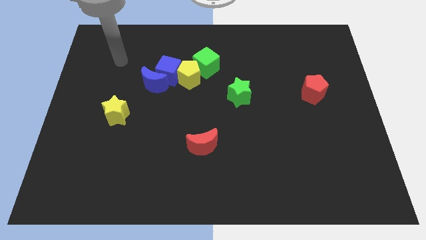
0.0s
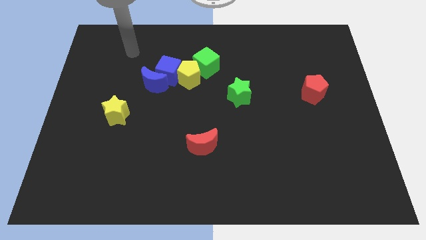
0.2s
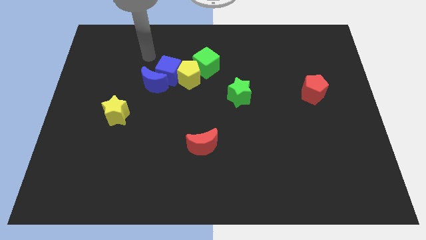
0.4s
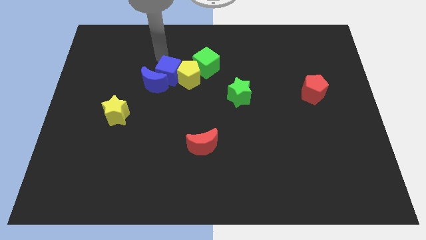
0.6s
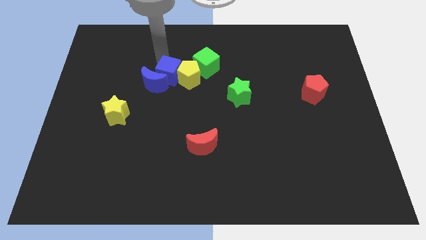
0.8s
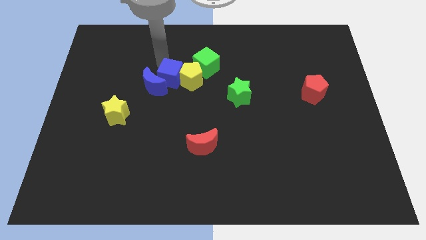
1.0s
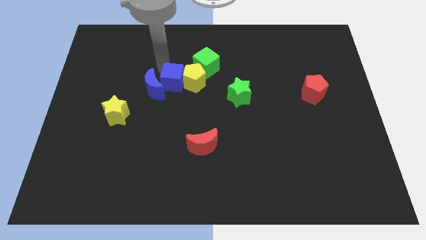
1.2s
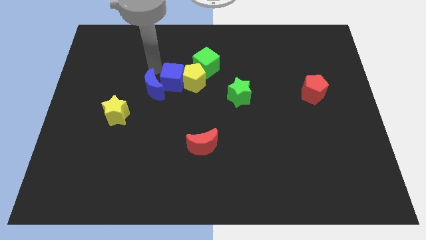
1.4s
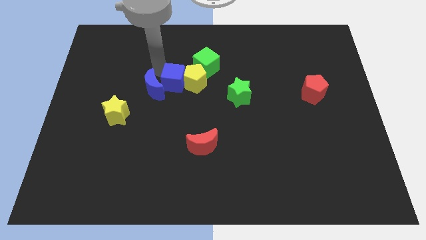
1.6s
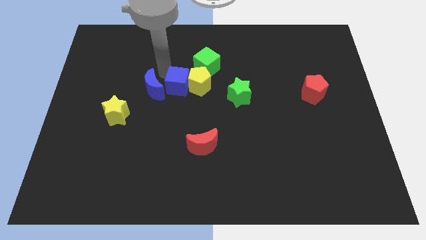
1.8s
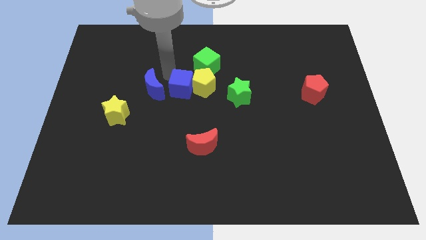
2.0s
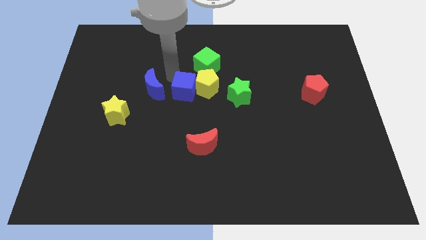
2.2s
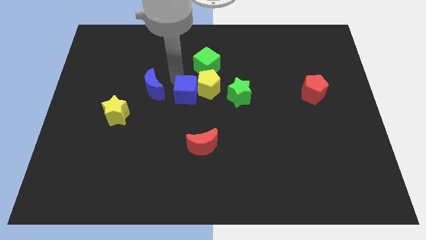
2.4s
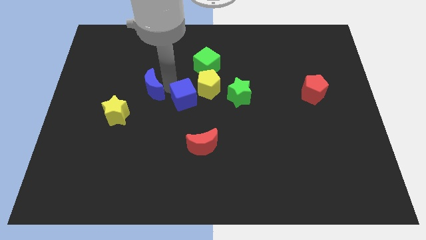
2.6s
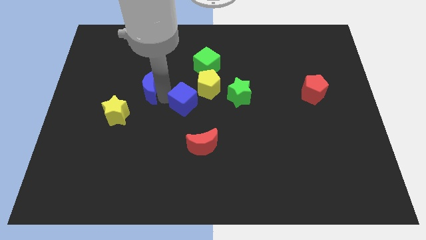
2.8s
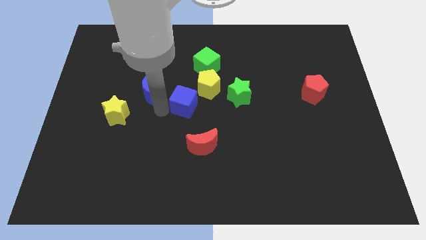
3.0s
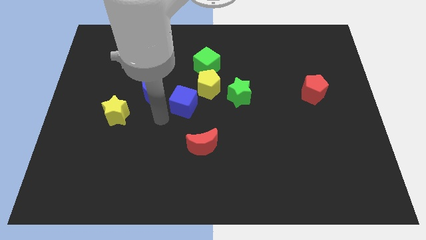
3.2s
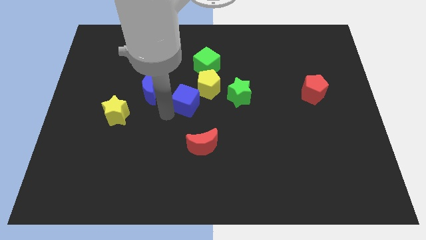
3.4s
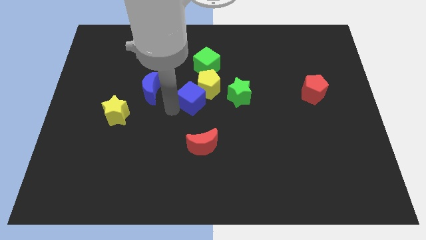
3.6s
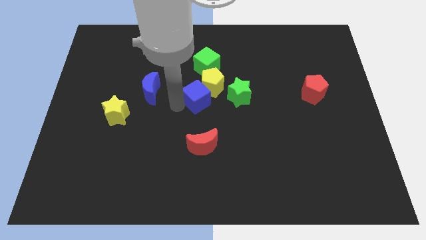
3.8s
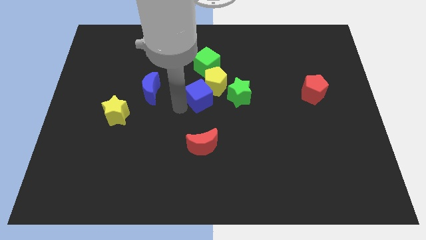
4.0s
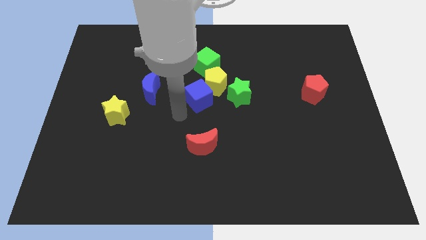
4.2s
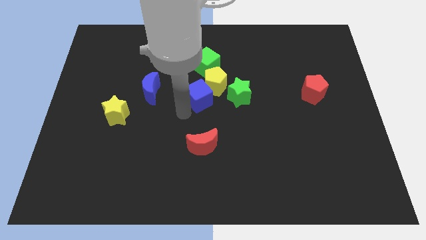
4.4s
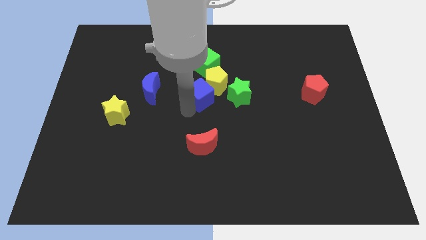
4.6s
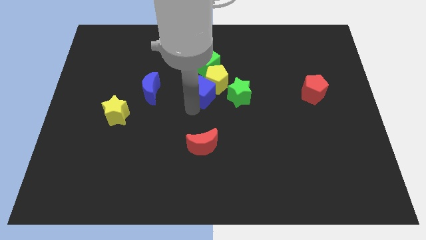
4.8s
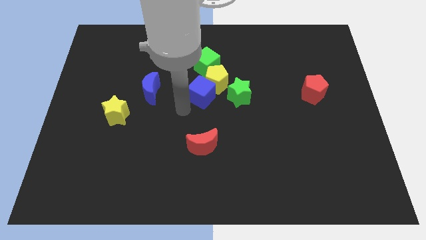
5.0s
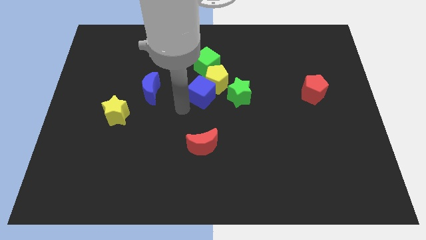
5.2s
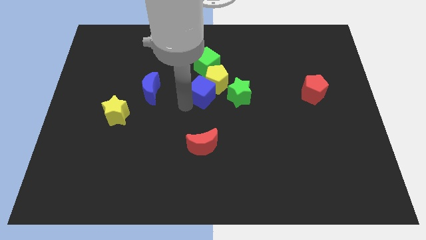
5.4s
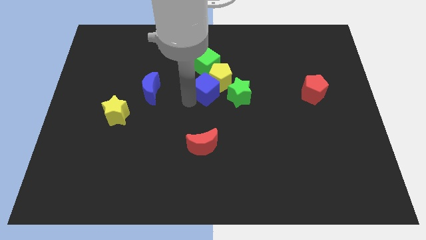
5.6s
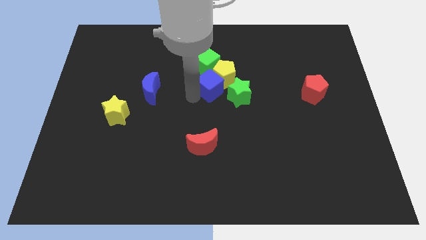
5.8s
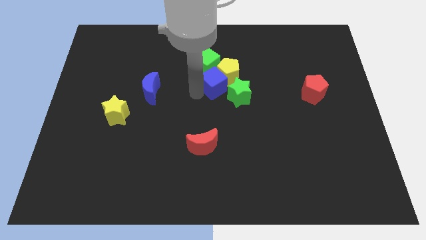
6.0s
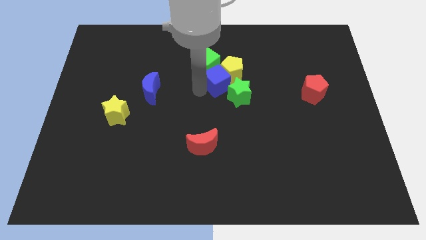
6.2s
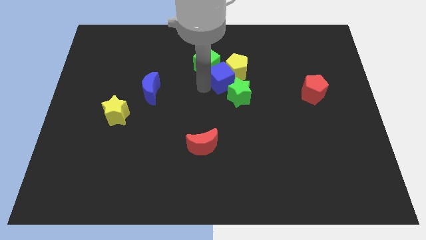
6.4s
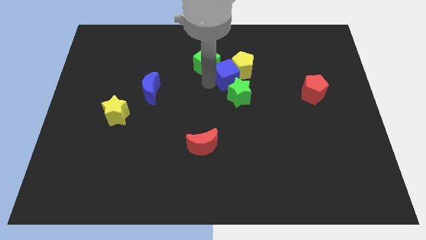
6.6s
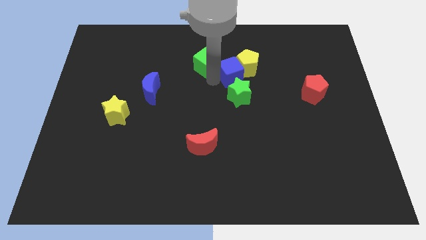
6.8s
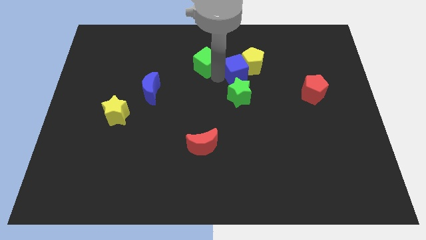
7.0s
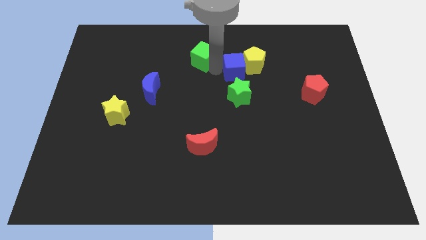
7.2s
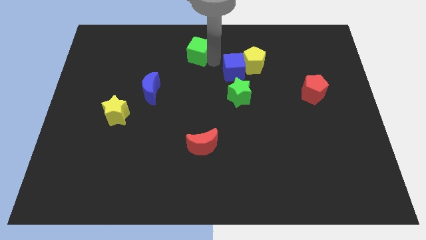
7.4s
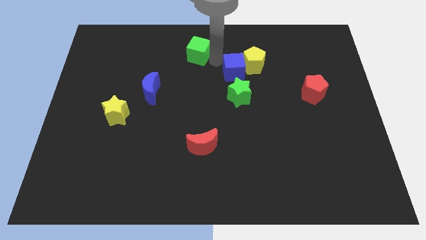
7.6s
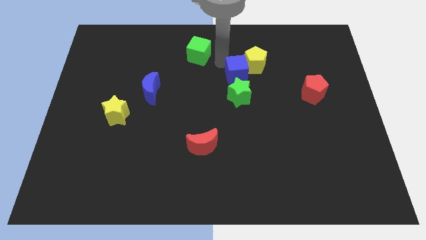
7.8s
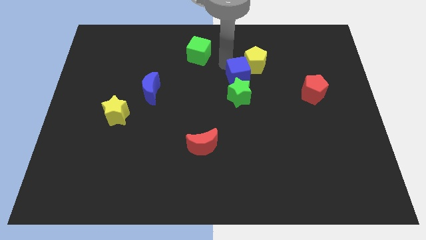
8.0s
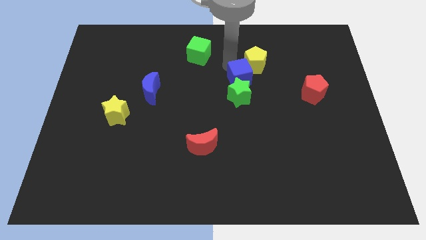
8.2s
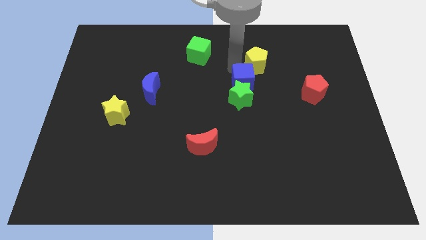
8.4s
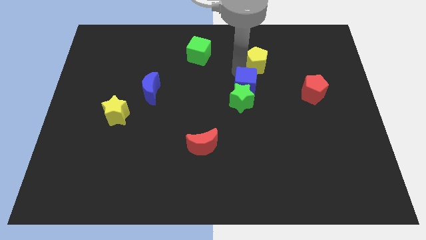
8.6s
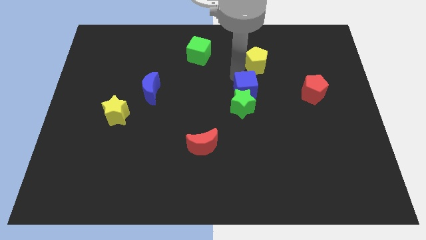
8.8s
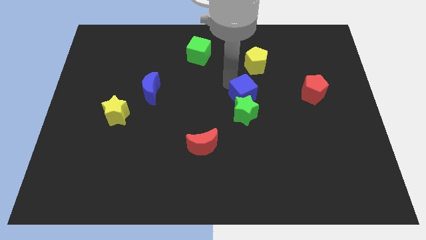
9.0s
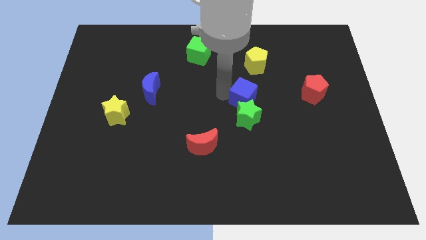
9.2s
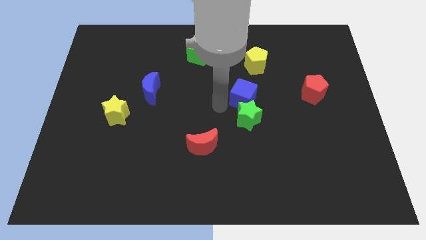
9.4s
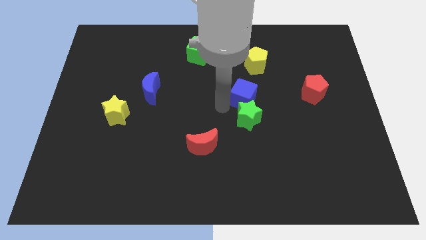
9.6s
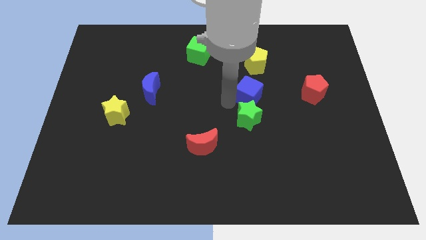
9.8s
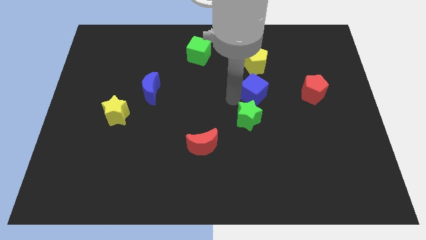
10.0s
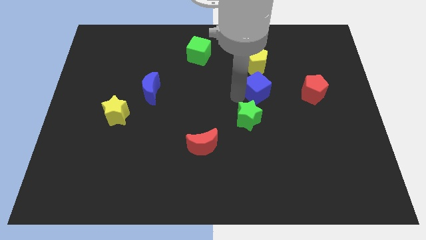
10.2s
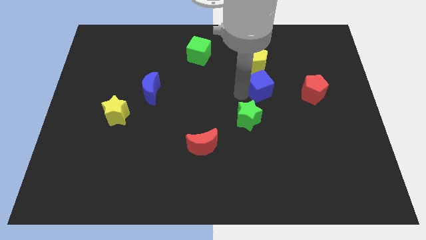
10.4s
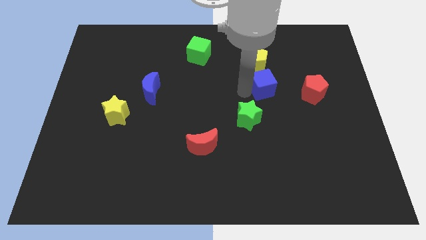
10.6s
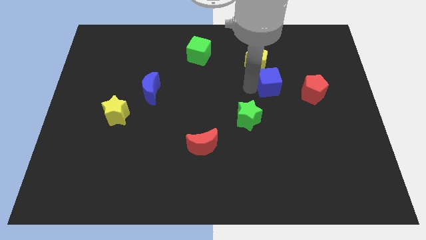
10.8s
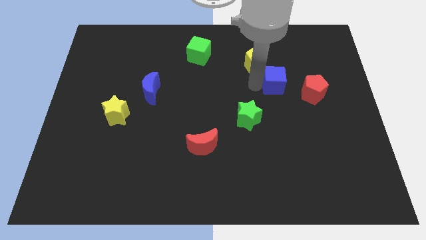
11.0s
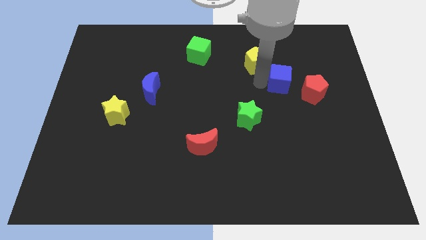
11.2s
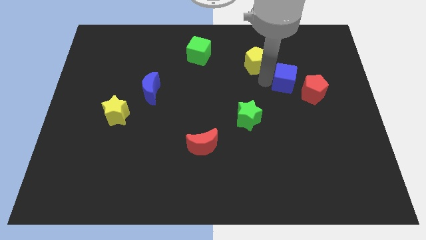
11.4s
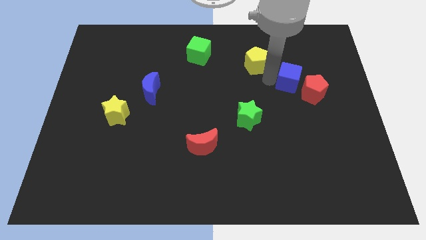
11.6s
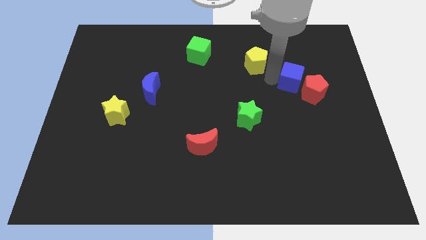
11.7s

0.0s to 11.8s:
move the blue cube close to the red pentagon
